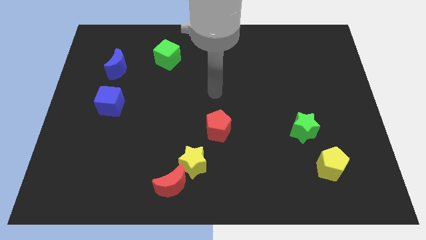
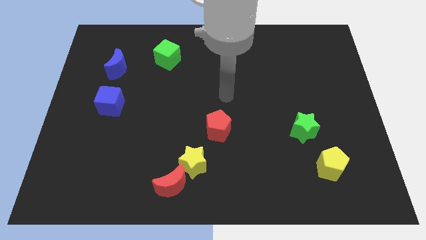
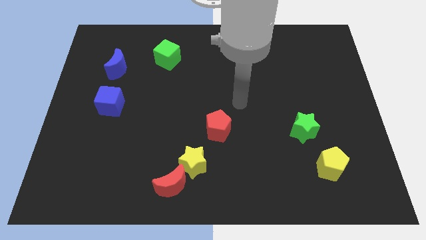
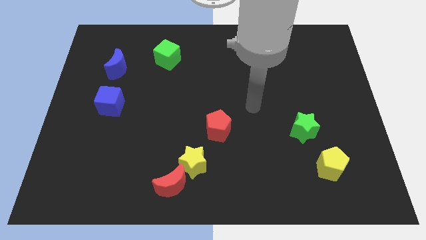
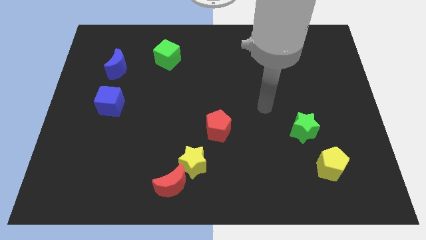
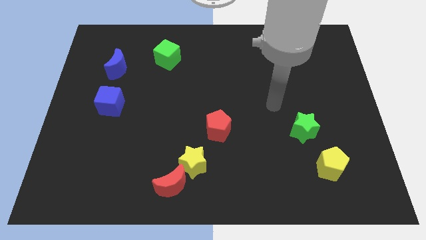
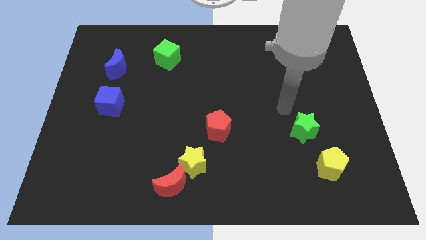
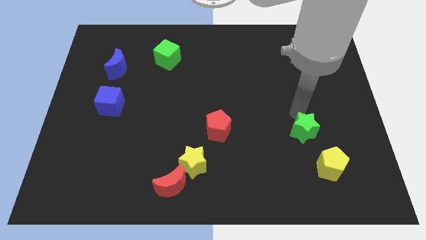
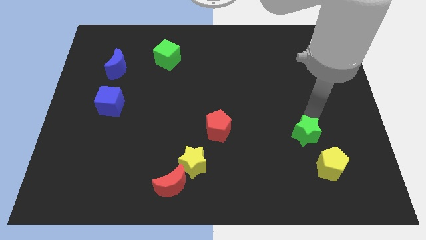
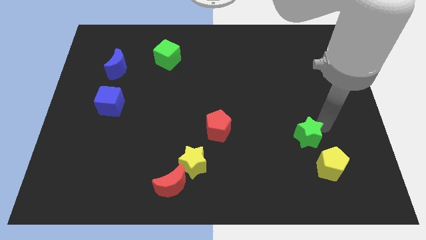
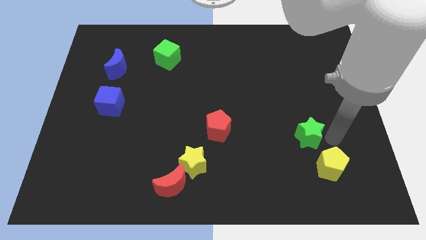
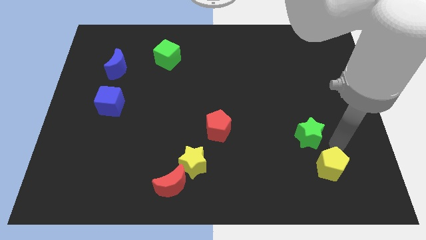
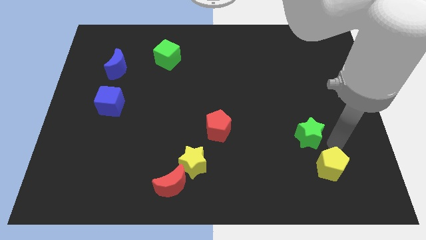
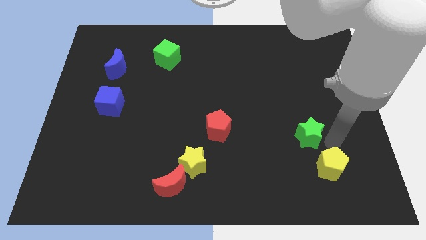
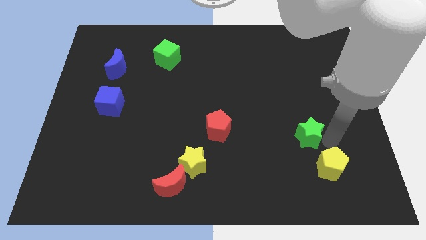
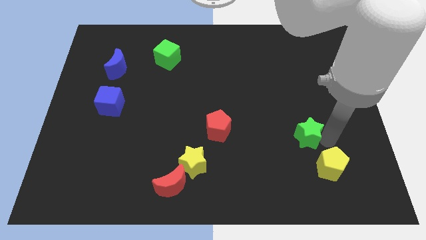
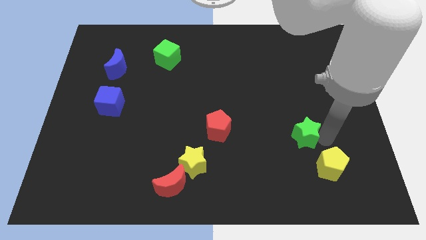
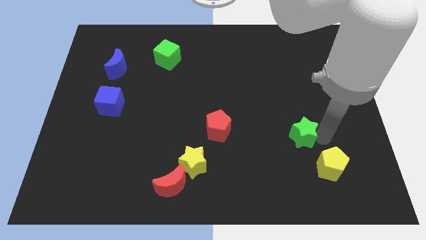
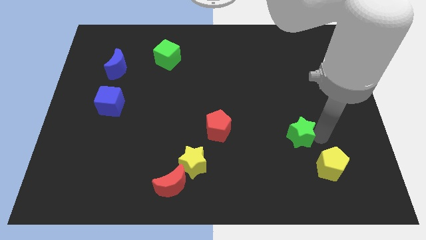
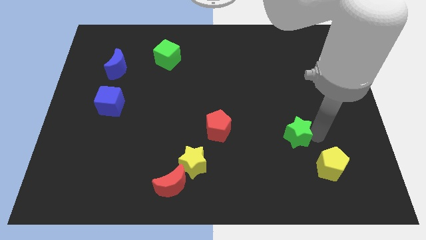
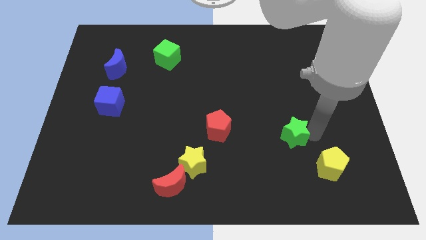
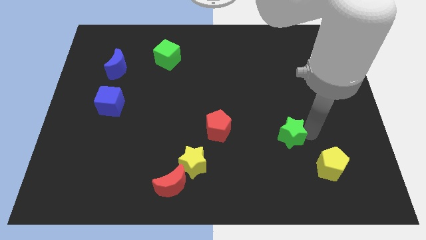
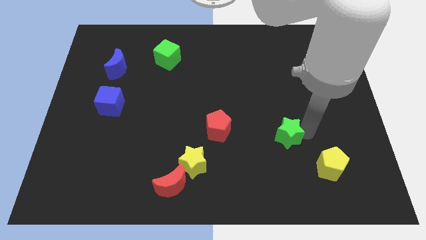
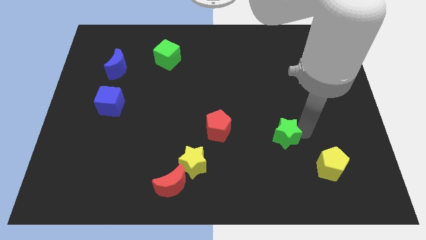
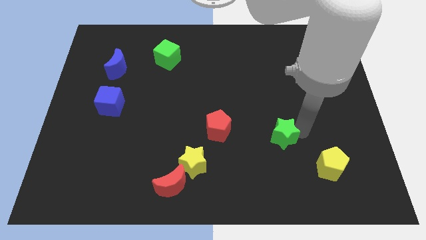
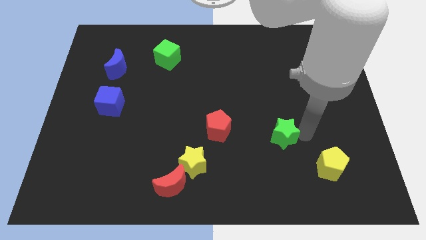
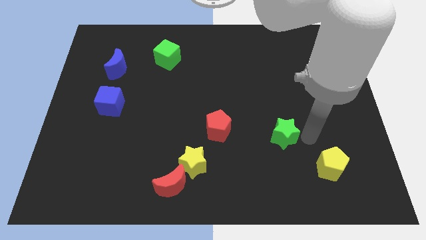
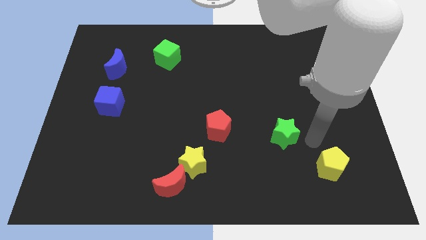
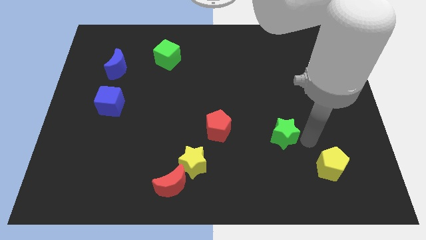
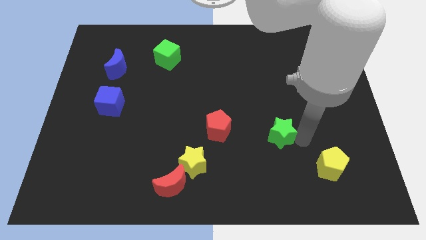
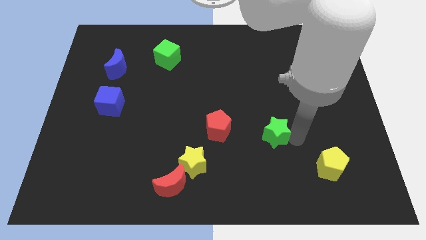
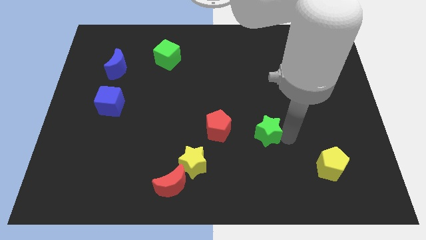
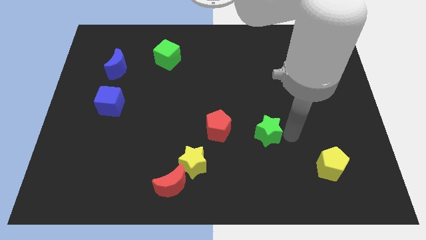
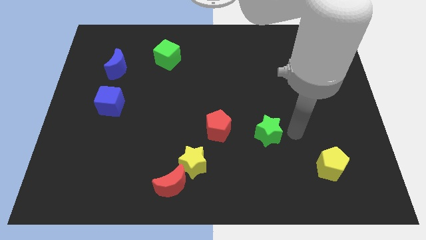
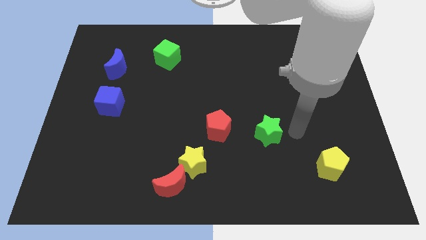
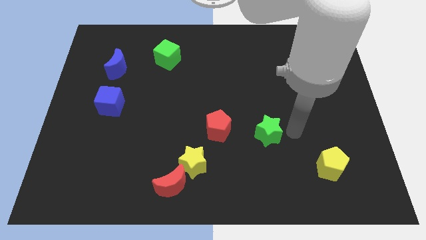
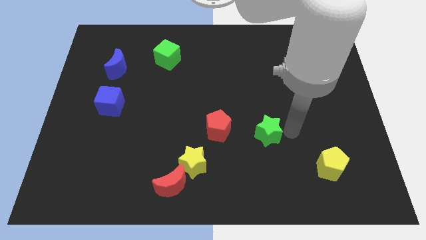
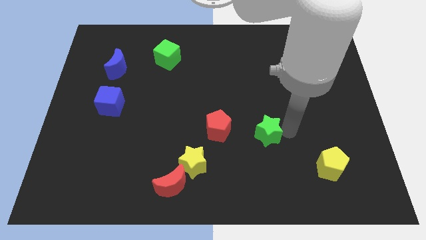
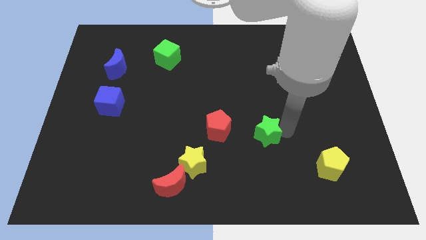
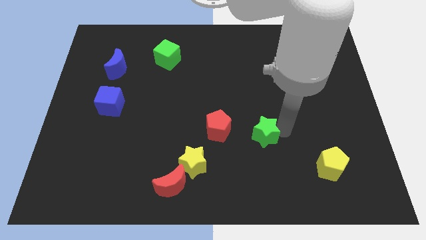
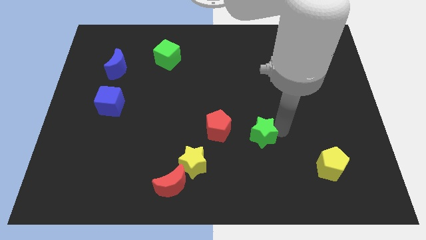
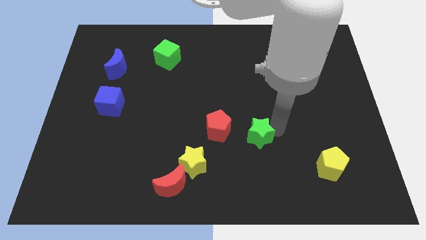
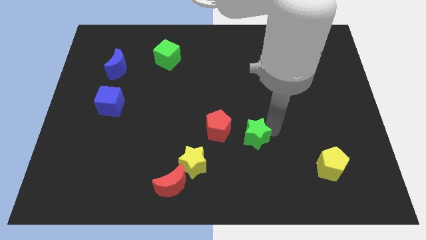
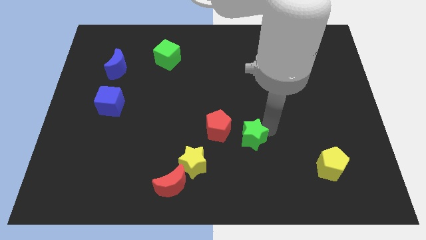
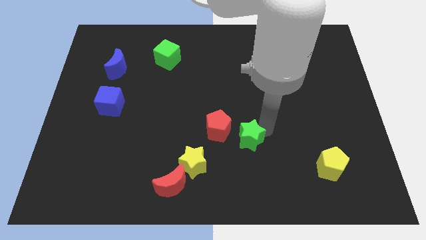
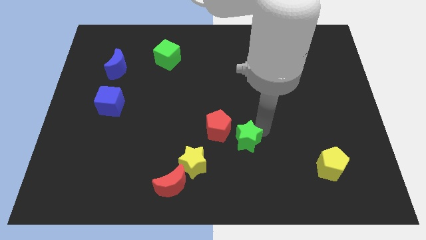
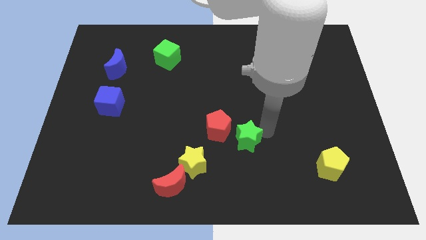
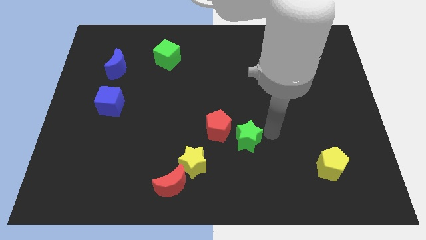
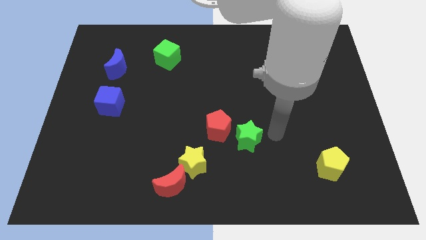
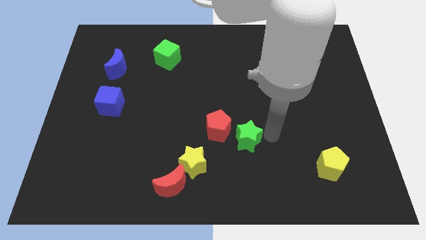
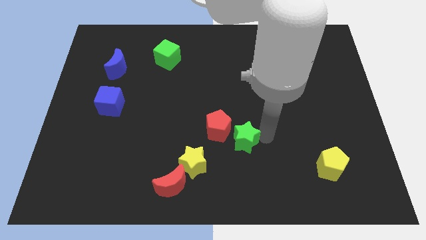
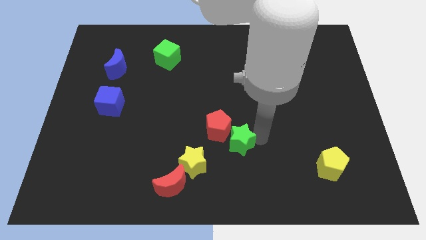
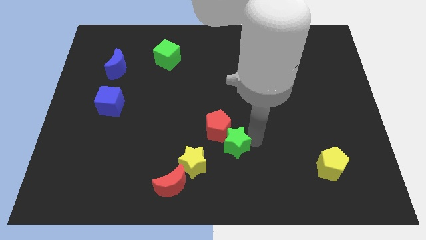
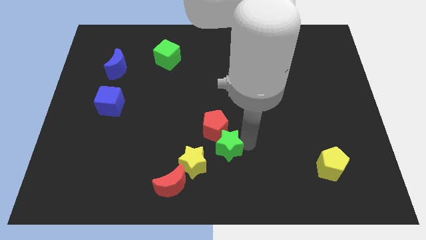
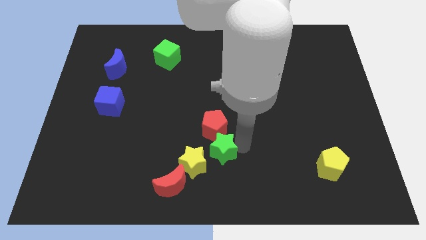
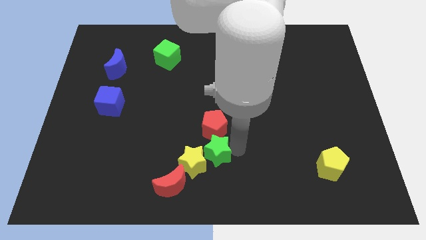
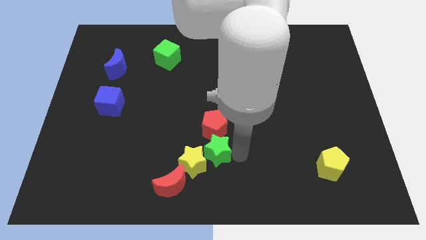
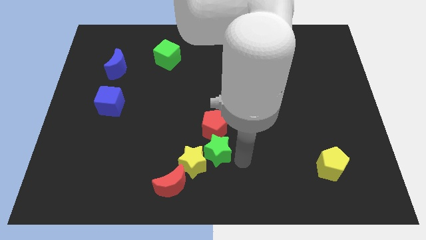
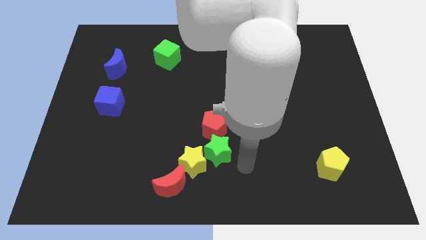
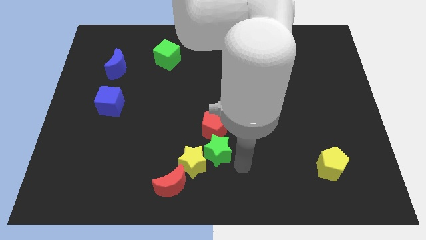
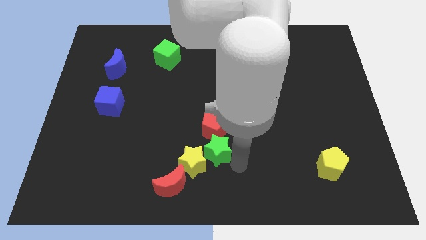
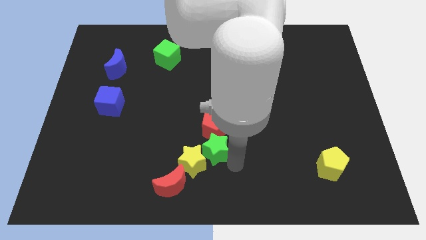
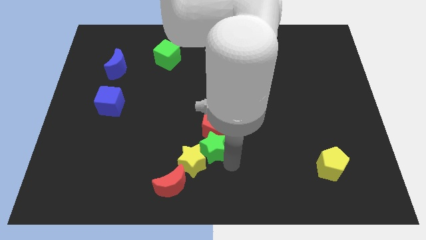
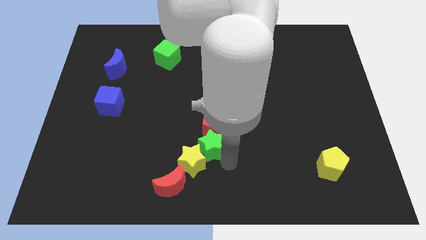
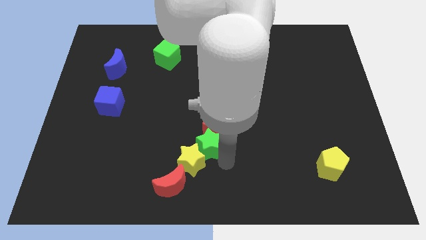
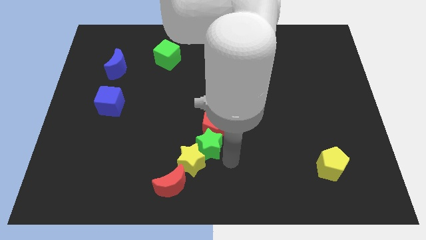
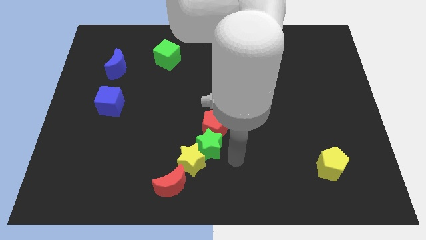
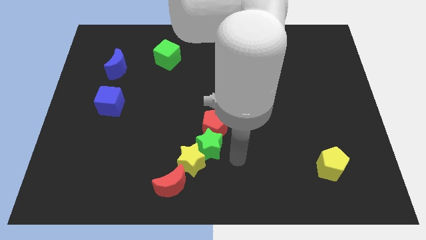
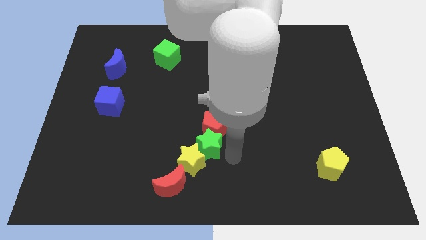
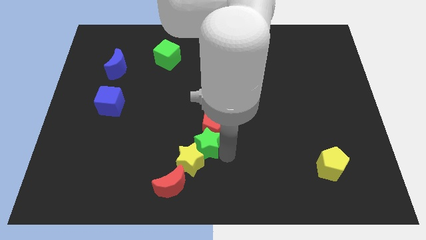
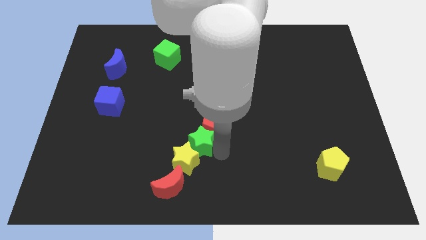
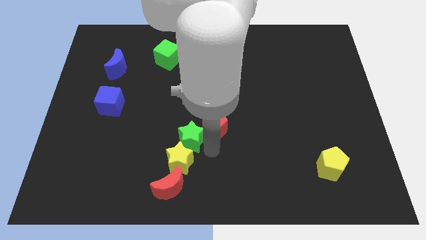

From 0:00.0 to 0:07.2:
push the green star left of the red pentagon
